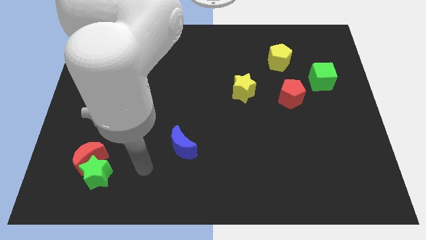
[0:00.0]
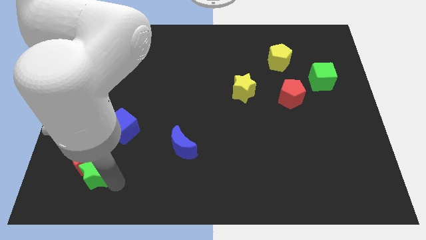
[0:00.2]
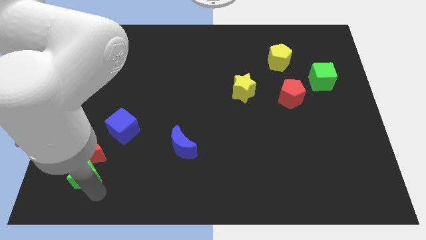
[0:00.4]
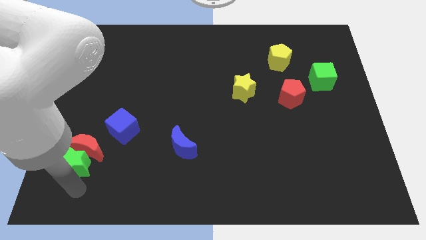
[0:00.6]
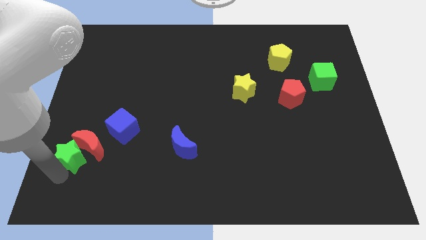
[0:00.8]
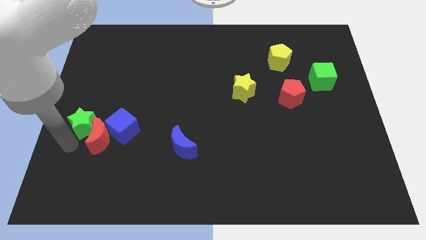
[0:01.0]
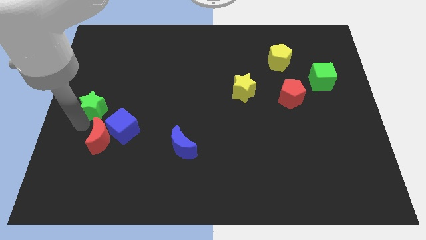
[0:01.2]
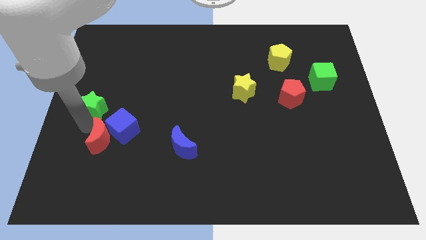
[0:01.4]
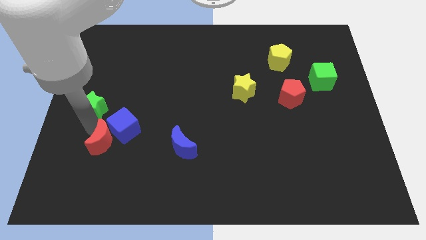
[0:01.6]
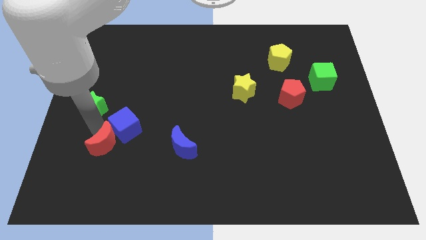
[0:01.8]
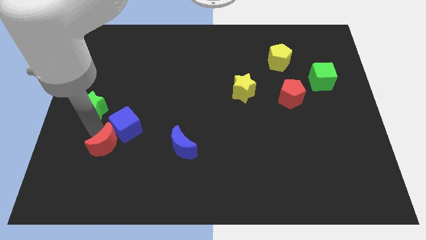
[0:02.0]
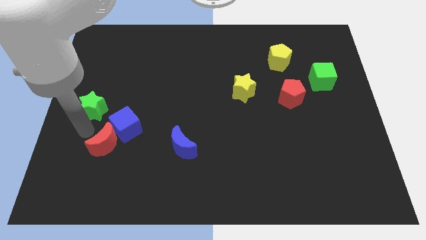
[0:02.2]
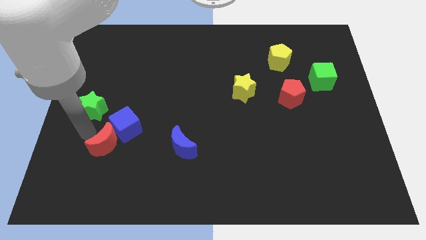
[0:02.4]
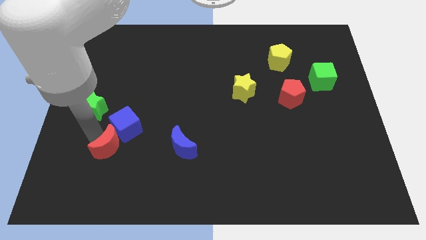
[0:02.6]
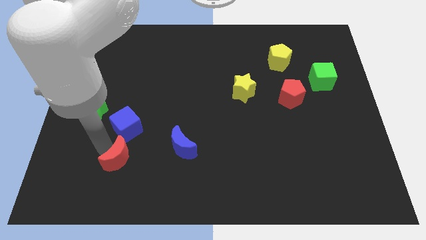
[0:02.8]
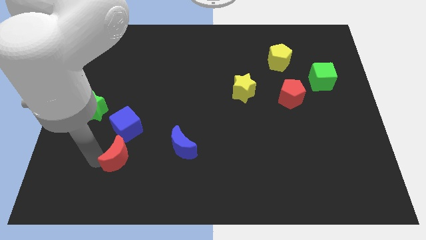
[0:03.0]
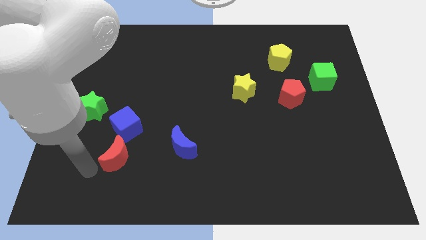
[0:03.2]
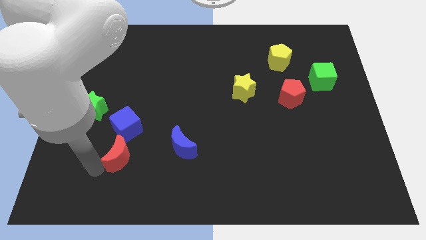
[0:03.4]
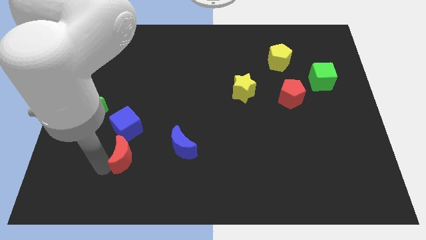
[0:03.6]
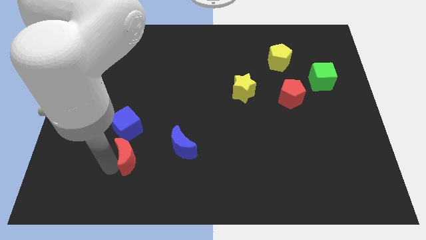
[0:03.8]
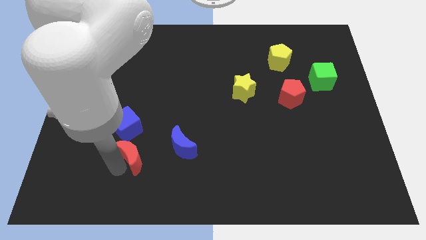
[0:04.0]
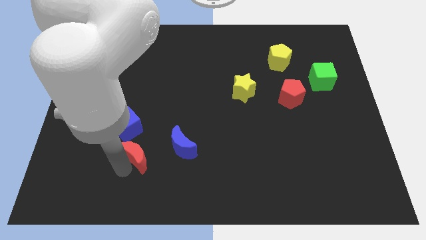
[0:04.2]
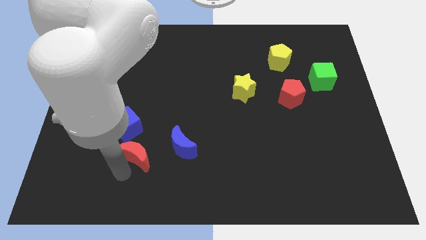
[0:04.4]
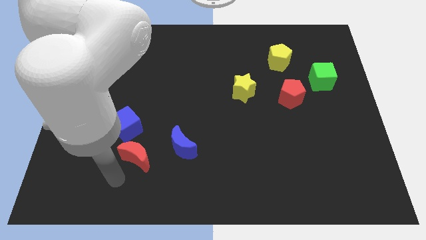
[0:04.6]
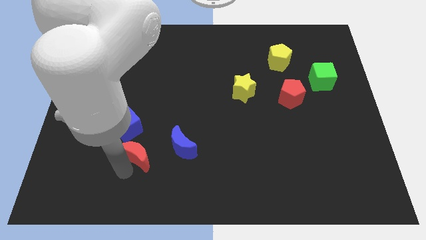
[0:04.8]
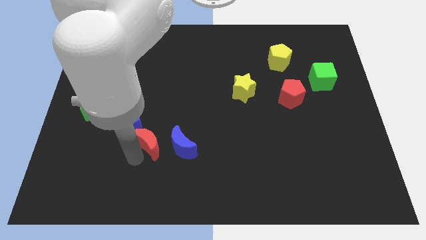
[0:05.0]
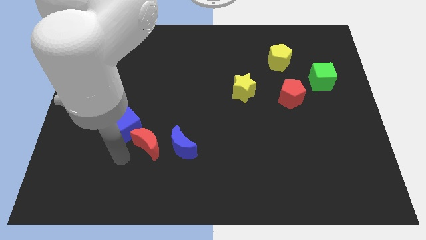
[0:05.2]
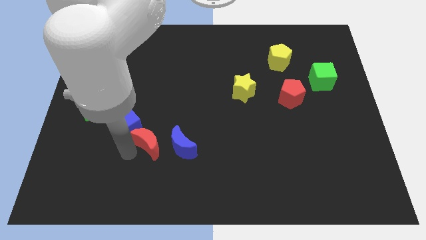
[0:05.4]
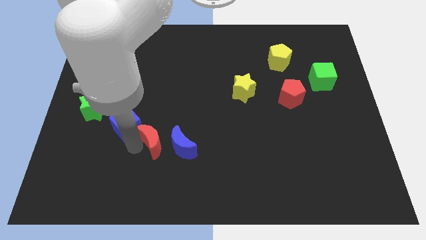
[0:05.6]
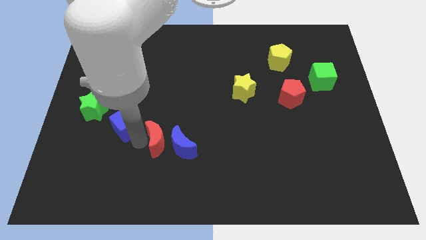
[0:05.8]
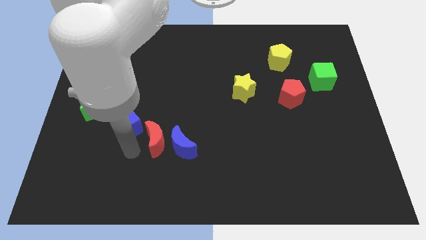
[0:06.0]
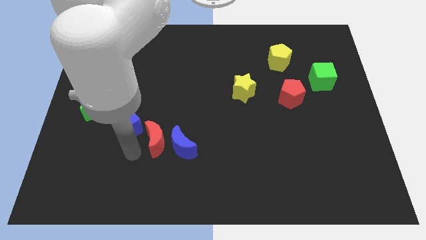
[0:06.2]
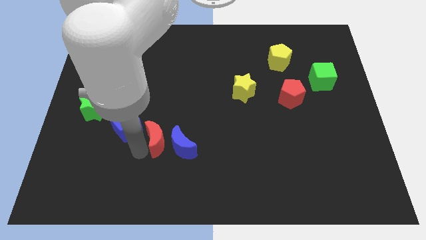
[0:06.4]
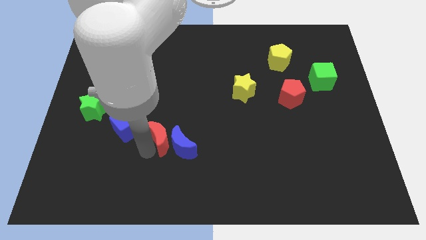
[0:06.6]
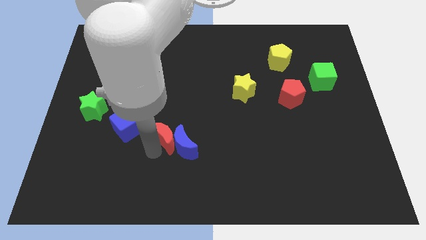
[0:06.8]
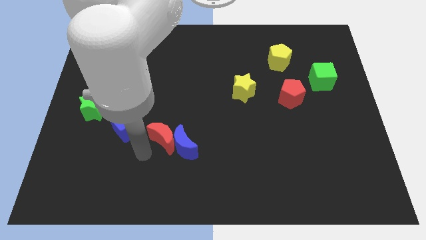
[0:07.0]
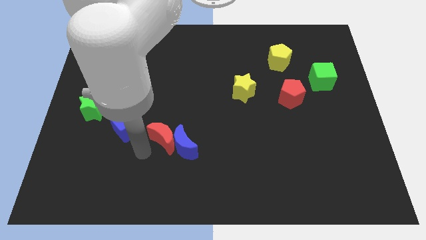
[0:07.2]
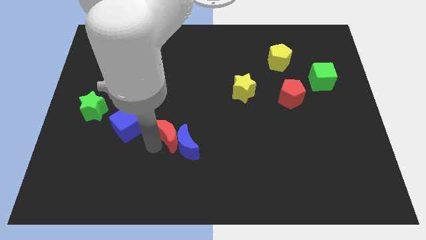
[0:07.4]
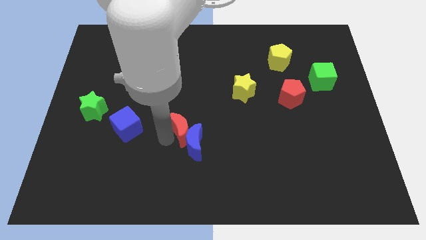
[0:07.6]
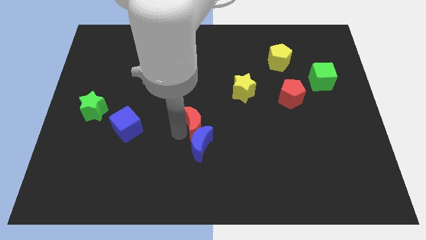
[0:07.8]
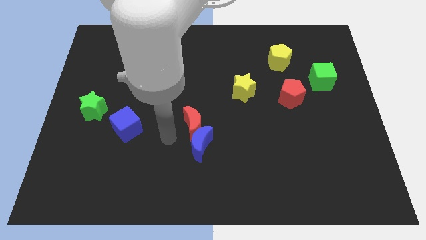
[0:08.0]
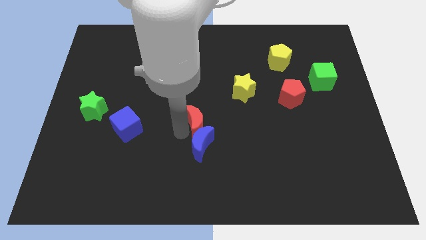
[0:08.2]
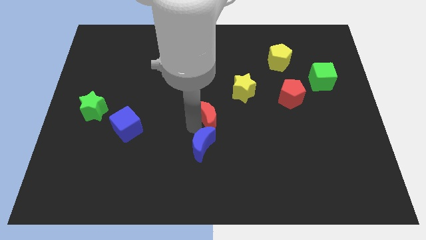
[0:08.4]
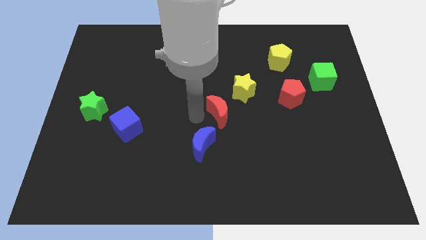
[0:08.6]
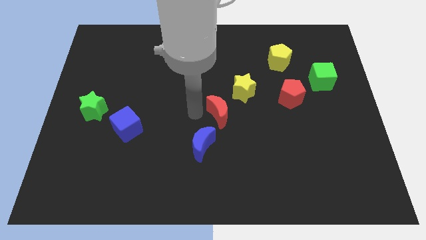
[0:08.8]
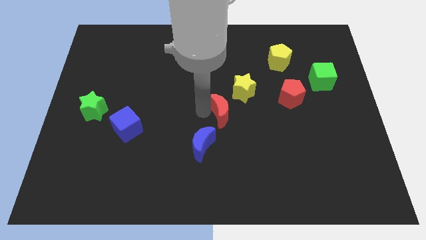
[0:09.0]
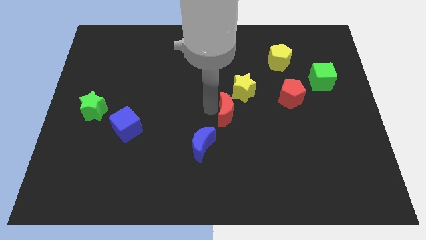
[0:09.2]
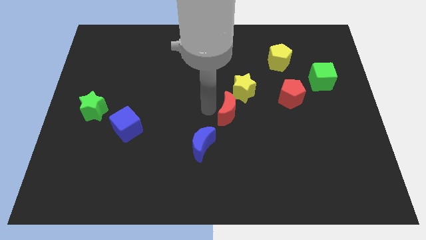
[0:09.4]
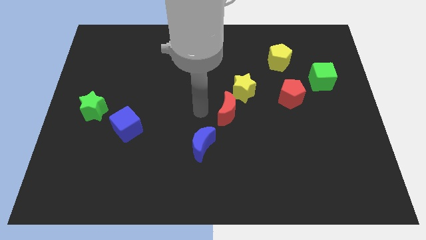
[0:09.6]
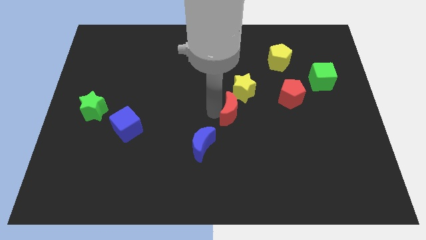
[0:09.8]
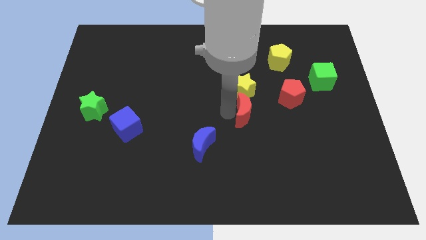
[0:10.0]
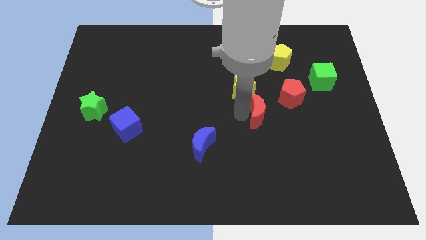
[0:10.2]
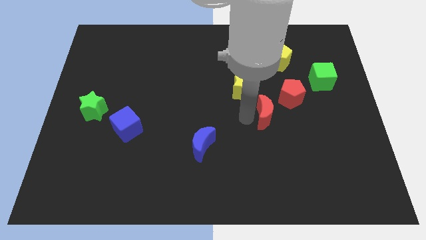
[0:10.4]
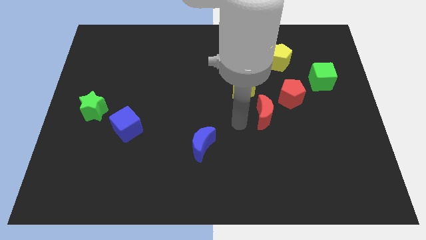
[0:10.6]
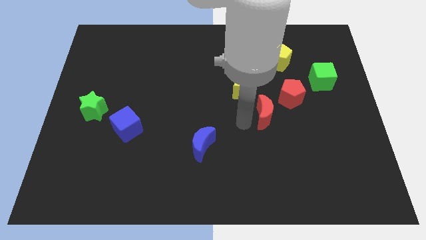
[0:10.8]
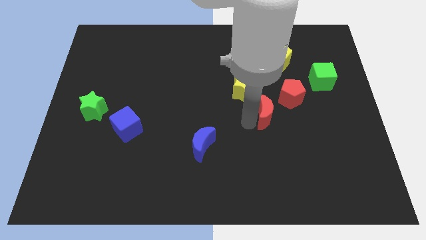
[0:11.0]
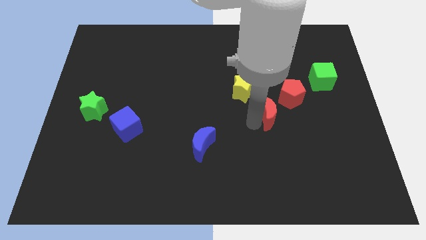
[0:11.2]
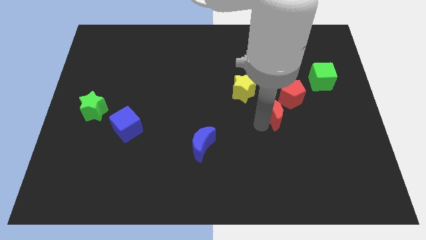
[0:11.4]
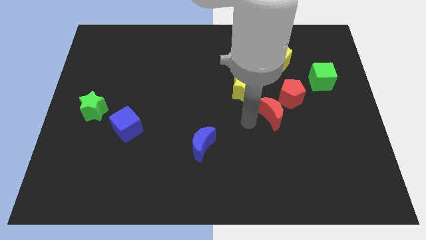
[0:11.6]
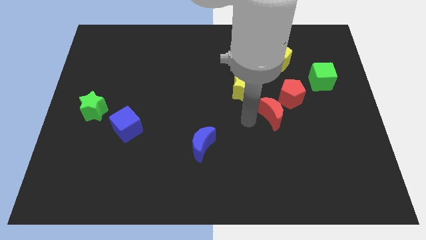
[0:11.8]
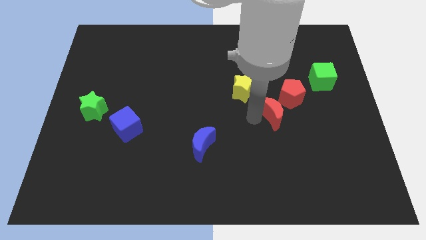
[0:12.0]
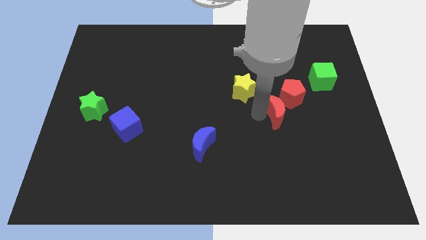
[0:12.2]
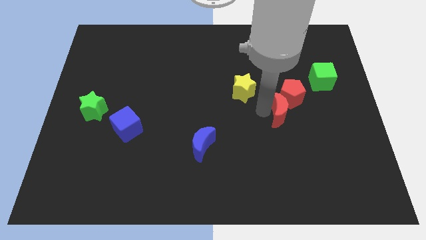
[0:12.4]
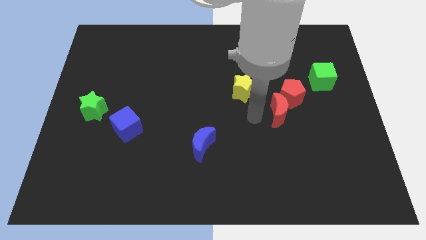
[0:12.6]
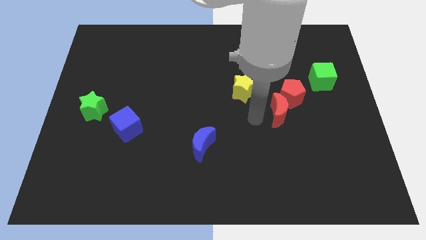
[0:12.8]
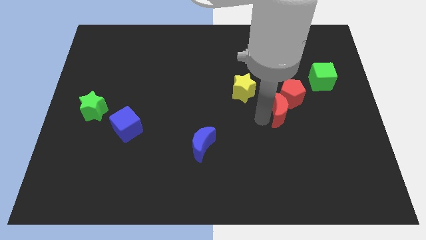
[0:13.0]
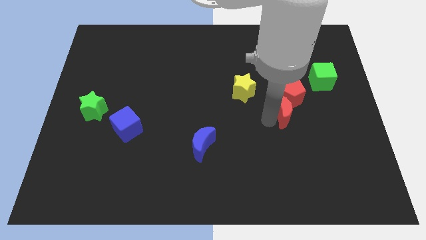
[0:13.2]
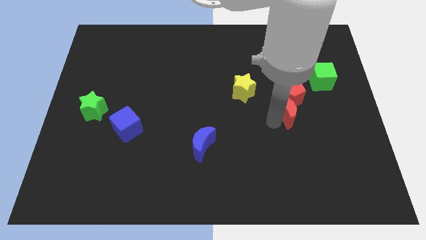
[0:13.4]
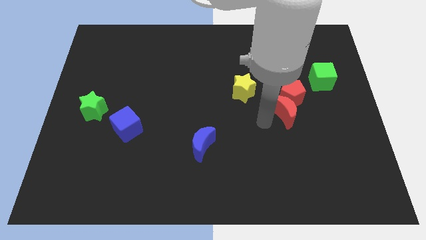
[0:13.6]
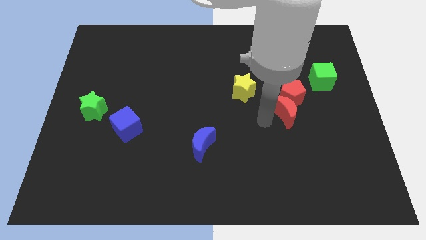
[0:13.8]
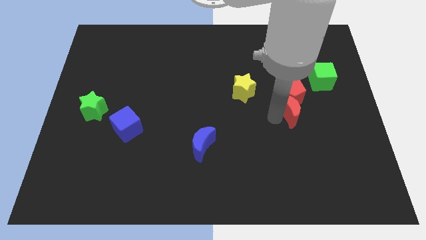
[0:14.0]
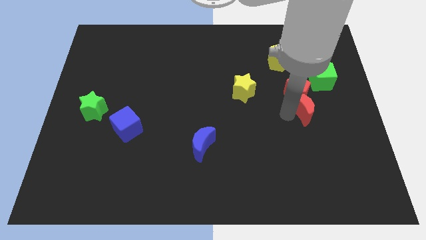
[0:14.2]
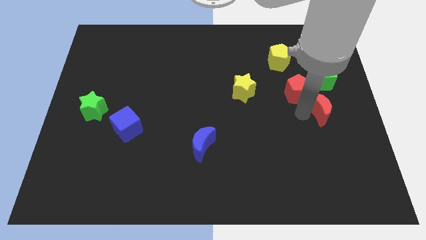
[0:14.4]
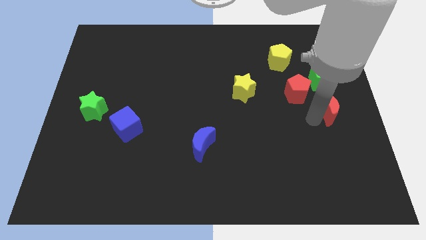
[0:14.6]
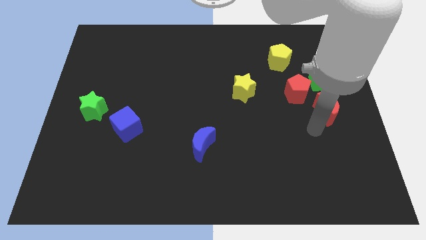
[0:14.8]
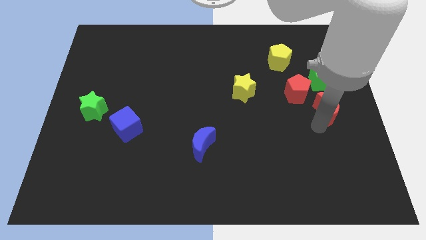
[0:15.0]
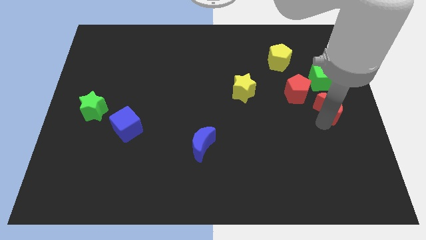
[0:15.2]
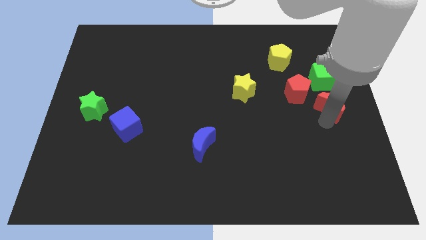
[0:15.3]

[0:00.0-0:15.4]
slide the red moon just right of the red pentagon
